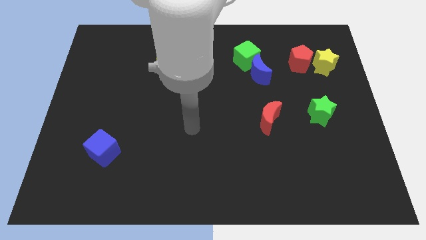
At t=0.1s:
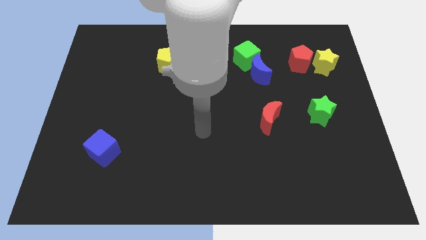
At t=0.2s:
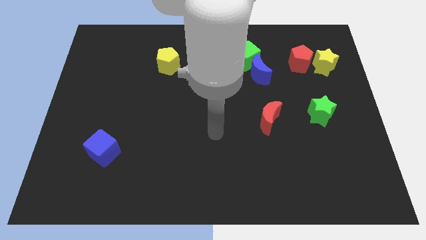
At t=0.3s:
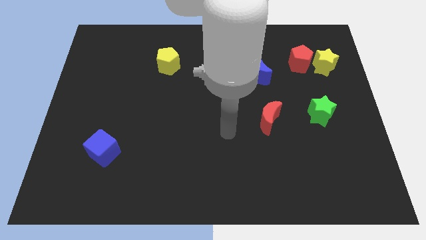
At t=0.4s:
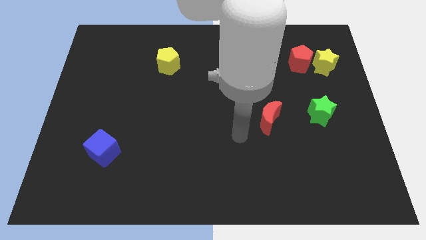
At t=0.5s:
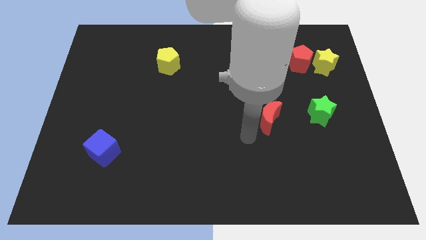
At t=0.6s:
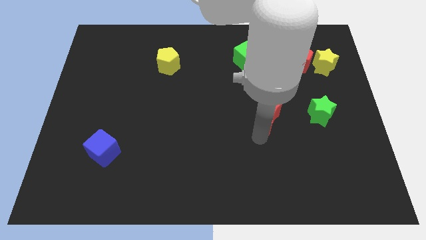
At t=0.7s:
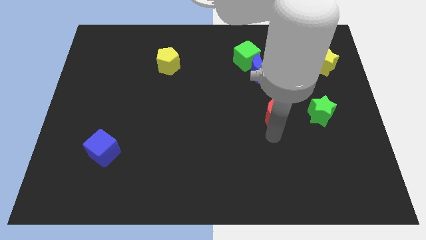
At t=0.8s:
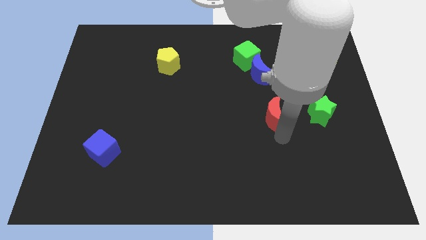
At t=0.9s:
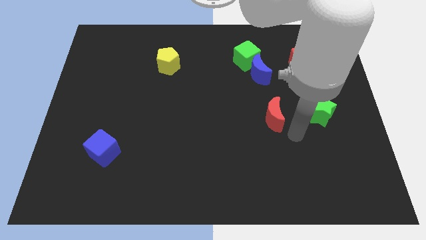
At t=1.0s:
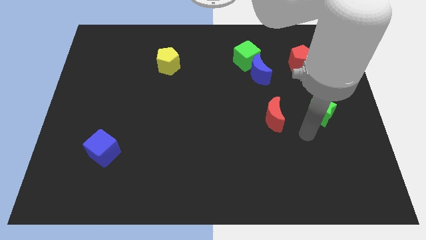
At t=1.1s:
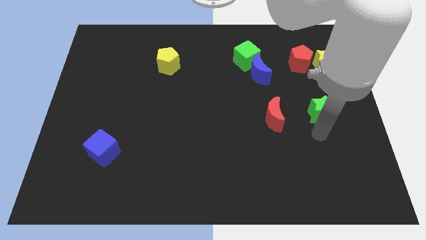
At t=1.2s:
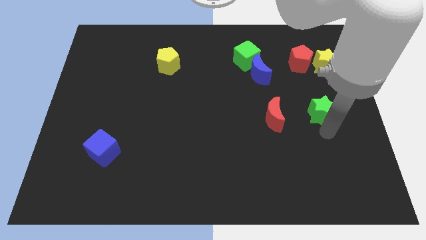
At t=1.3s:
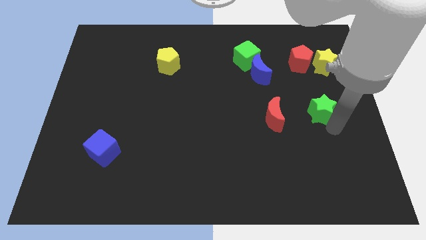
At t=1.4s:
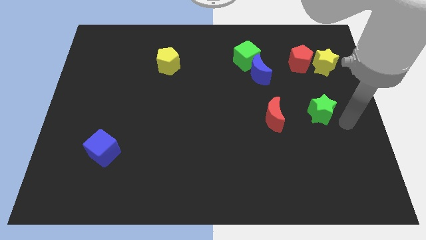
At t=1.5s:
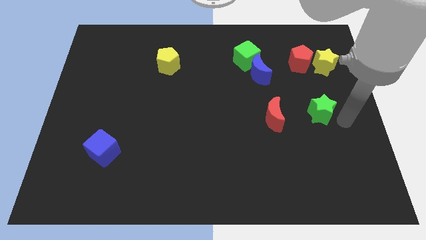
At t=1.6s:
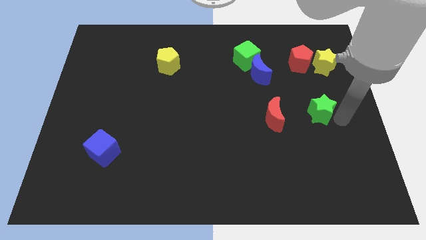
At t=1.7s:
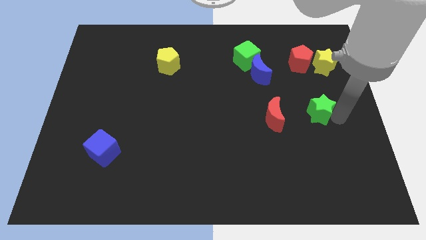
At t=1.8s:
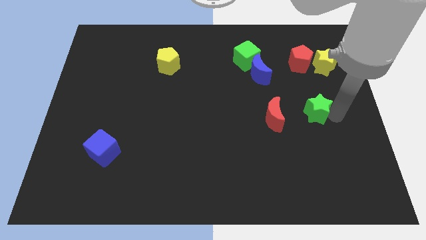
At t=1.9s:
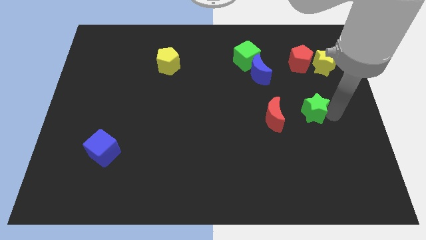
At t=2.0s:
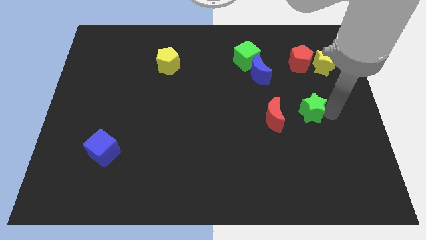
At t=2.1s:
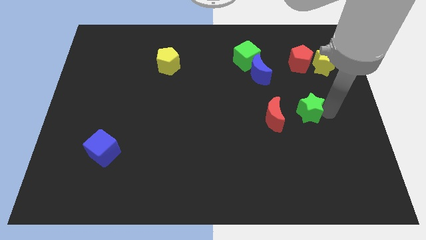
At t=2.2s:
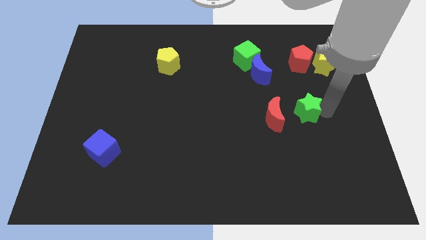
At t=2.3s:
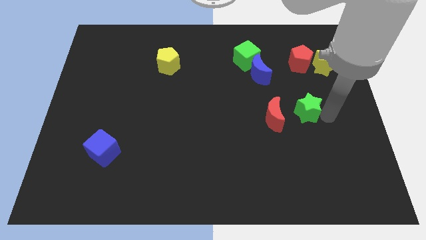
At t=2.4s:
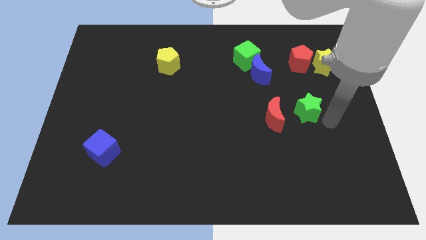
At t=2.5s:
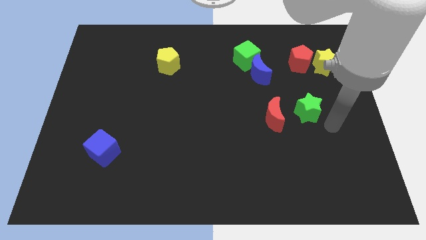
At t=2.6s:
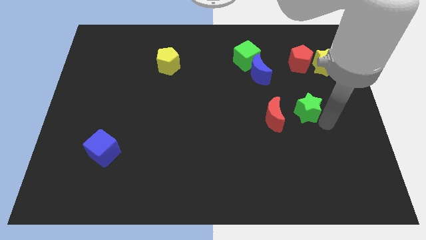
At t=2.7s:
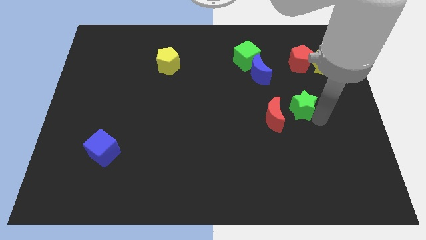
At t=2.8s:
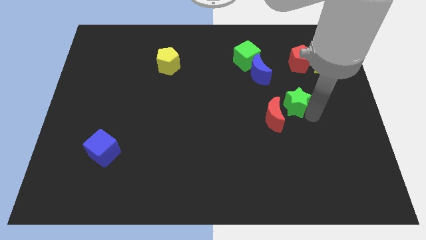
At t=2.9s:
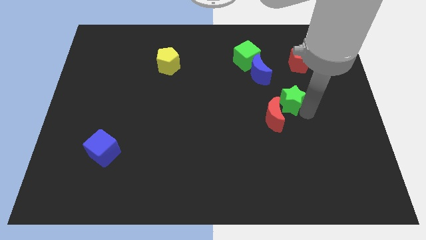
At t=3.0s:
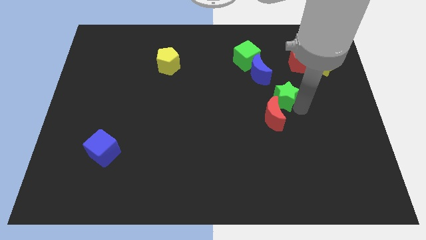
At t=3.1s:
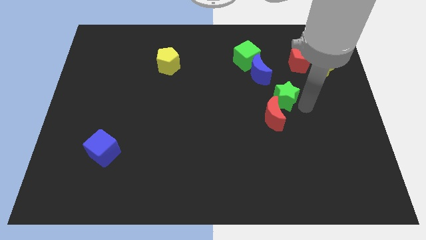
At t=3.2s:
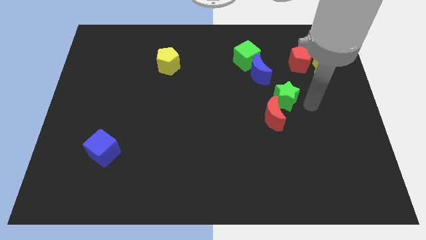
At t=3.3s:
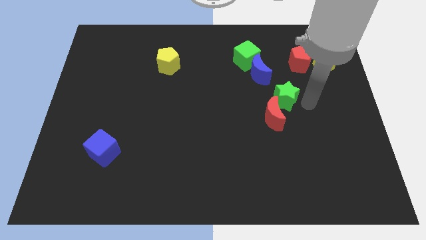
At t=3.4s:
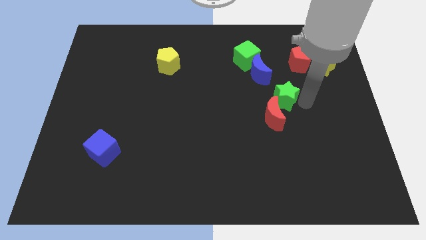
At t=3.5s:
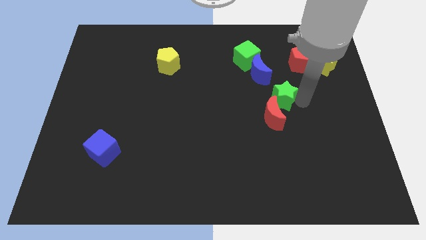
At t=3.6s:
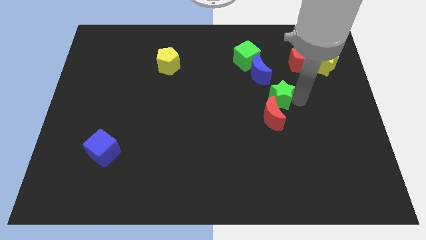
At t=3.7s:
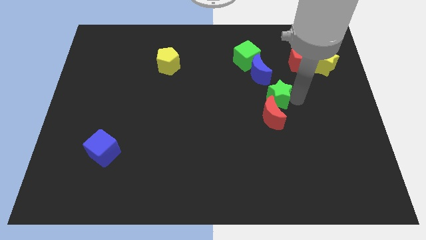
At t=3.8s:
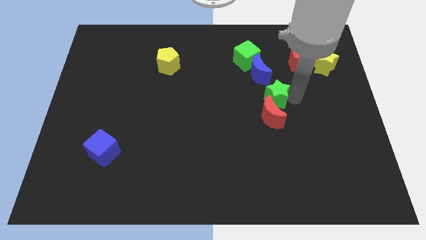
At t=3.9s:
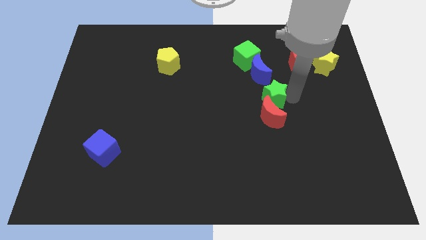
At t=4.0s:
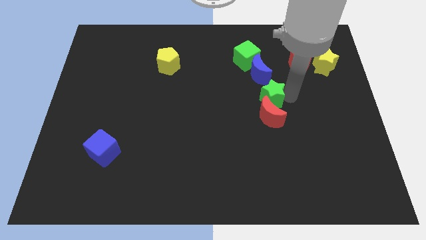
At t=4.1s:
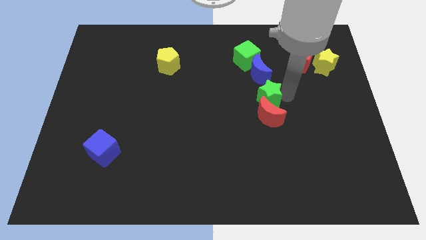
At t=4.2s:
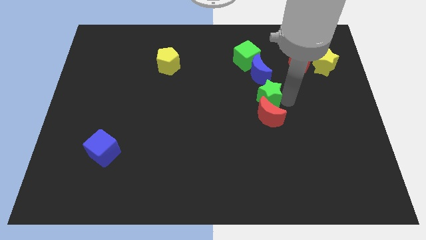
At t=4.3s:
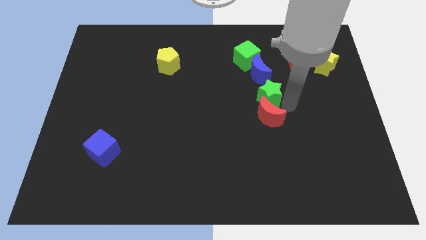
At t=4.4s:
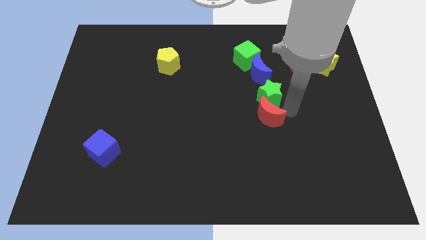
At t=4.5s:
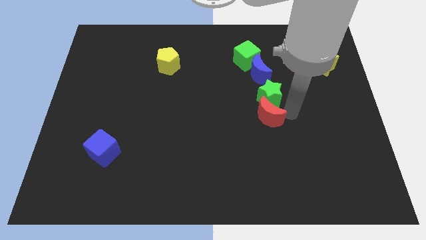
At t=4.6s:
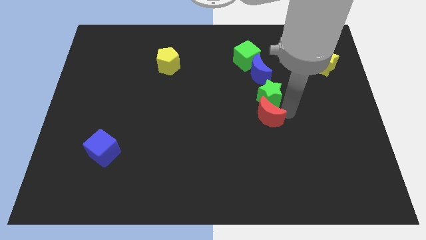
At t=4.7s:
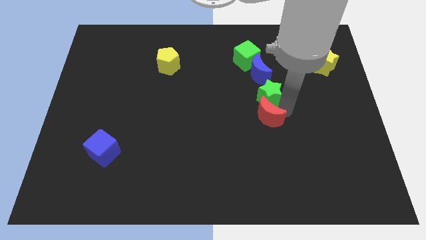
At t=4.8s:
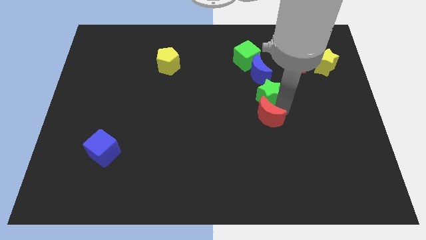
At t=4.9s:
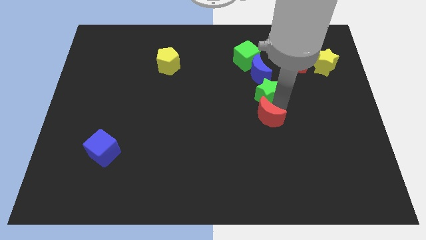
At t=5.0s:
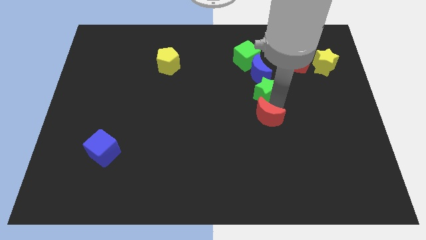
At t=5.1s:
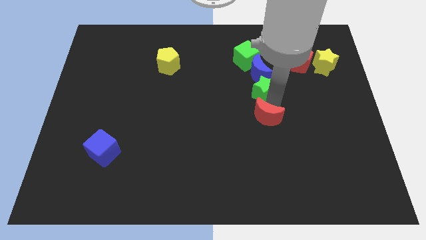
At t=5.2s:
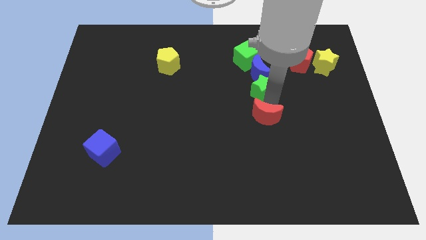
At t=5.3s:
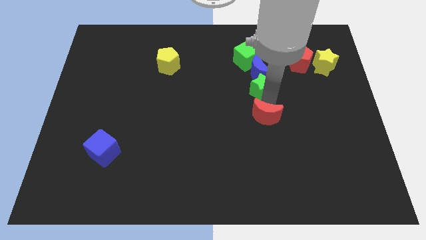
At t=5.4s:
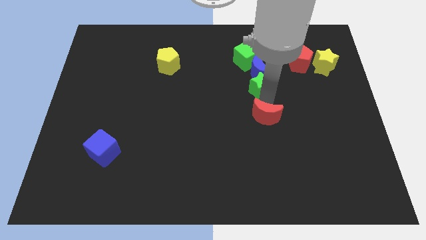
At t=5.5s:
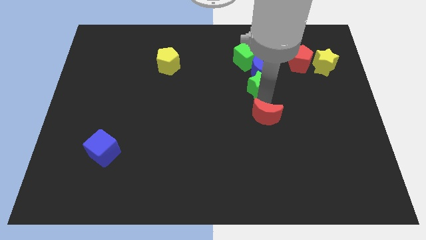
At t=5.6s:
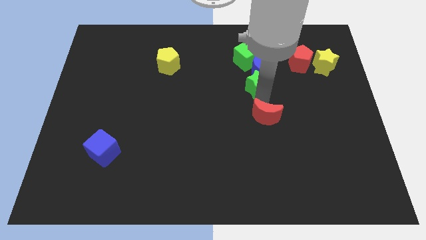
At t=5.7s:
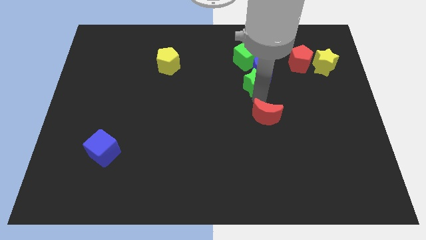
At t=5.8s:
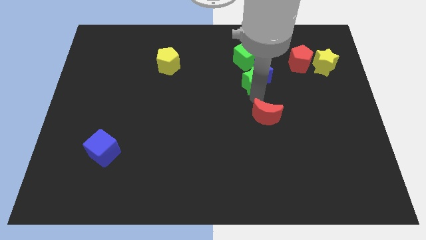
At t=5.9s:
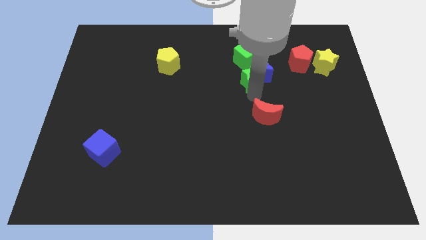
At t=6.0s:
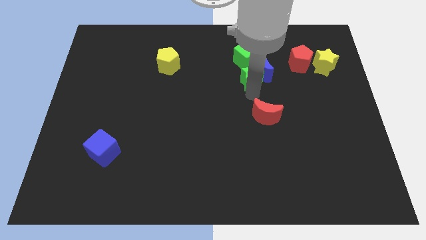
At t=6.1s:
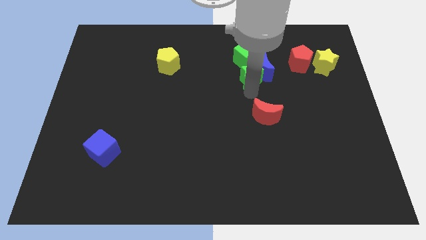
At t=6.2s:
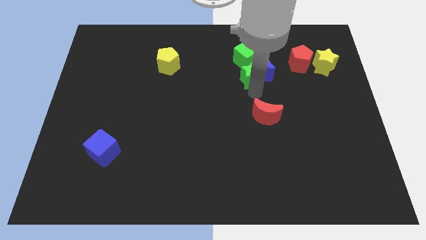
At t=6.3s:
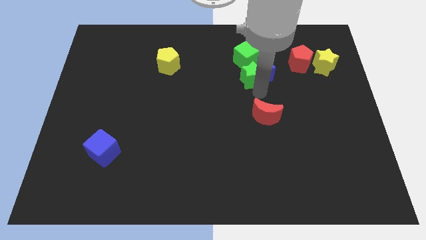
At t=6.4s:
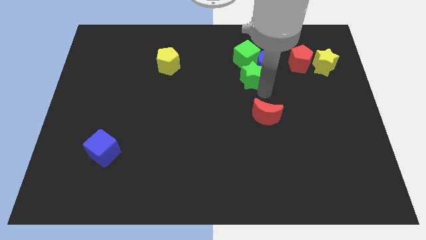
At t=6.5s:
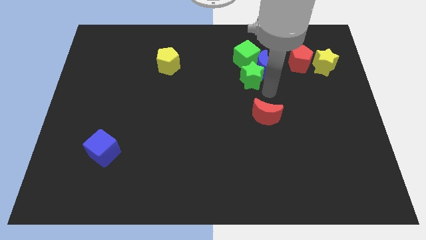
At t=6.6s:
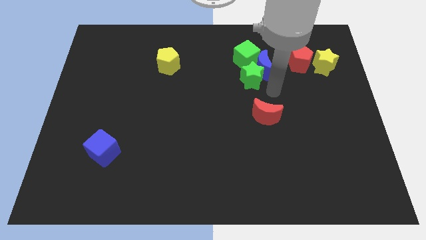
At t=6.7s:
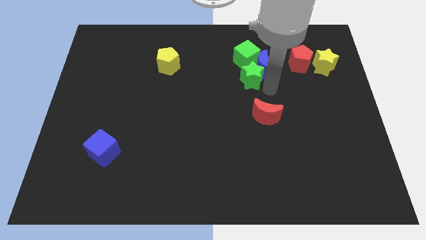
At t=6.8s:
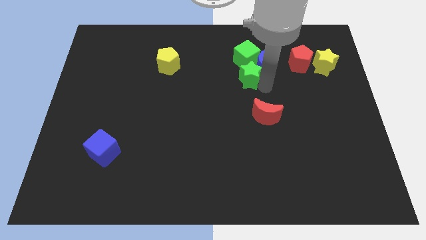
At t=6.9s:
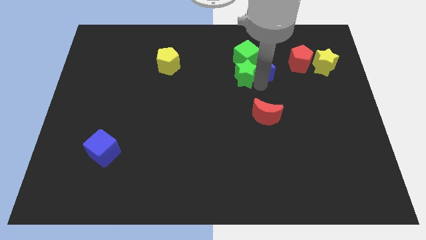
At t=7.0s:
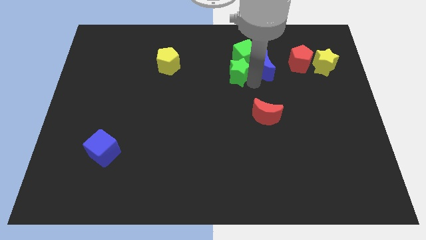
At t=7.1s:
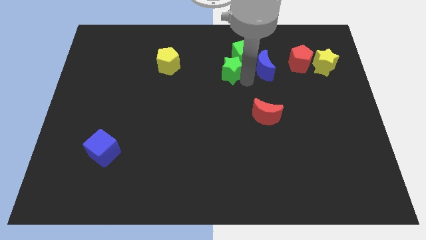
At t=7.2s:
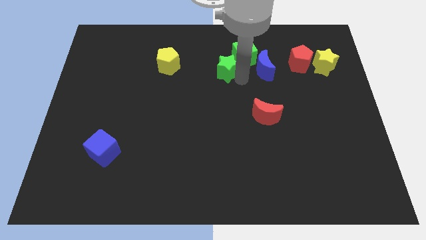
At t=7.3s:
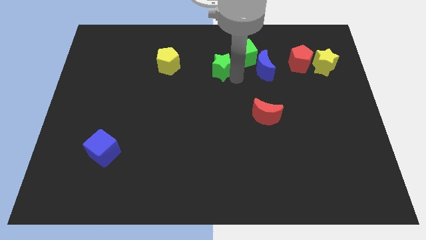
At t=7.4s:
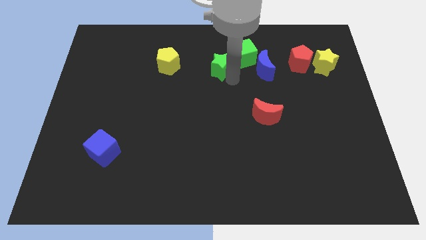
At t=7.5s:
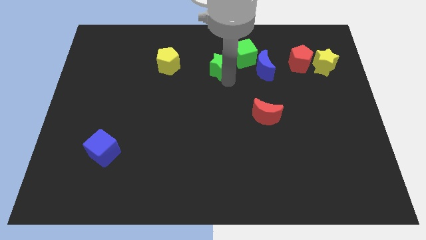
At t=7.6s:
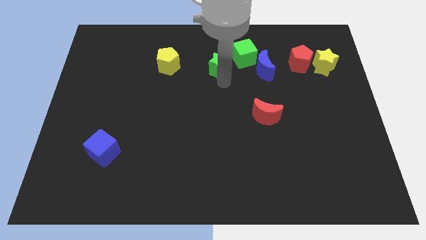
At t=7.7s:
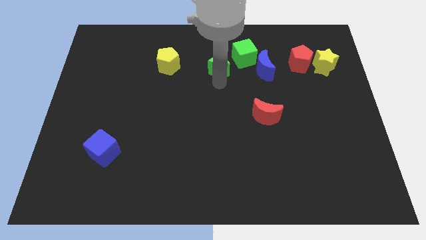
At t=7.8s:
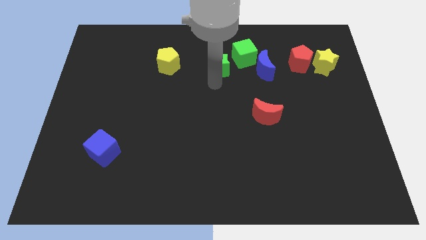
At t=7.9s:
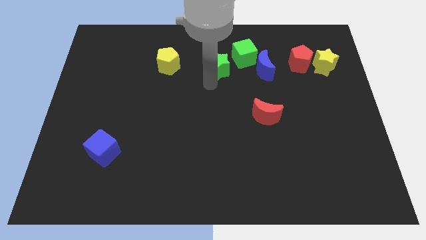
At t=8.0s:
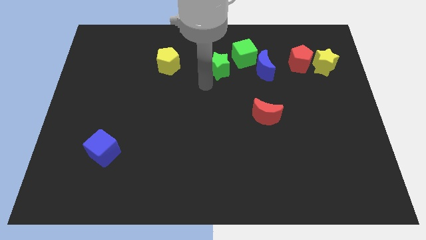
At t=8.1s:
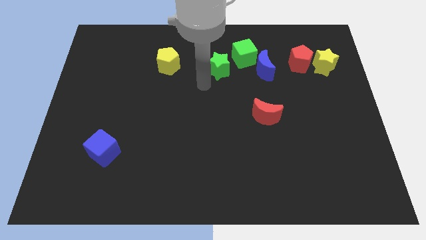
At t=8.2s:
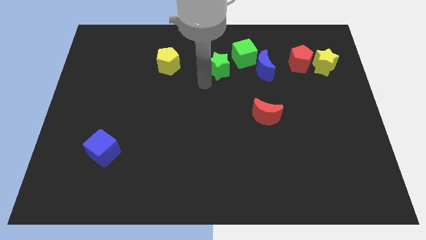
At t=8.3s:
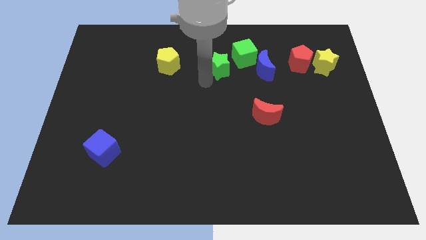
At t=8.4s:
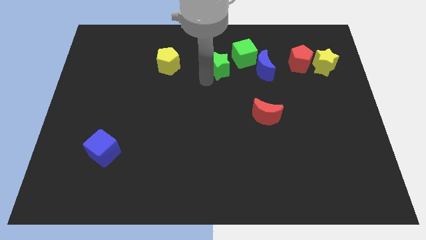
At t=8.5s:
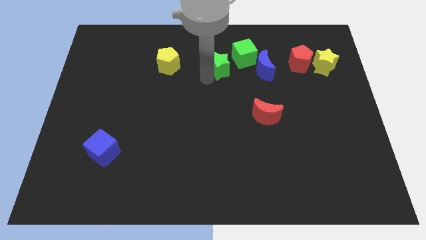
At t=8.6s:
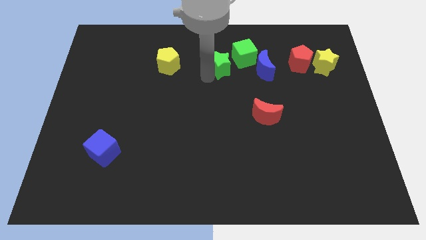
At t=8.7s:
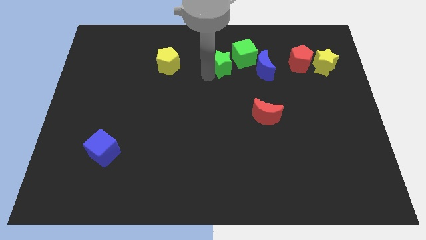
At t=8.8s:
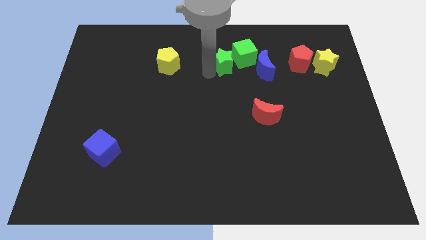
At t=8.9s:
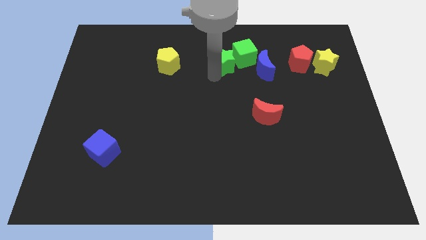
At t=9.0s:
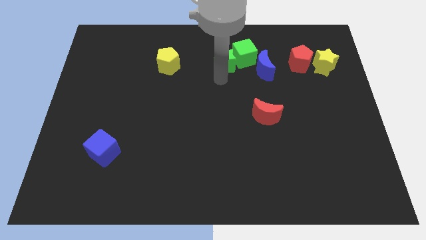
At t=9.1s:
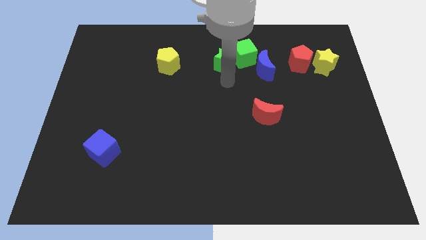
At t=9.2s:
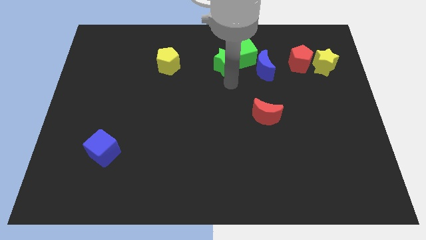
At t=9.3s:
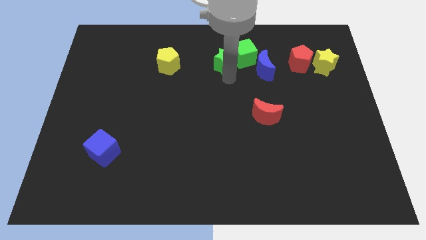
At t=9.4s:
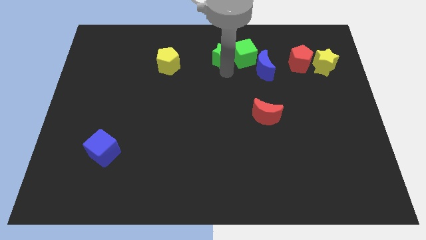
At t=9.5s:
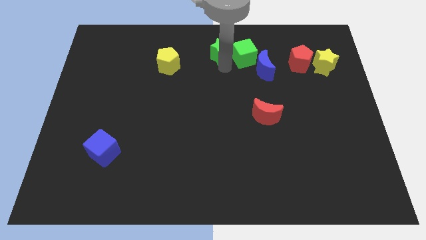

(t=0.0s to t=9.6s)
put the green star to the top side
